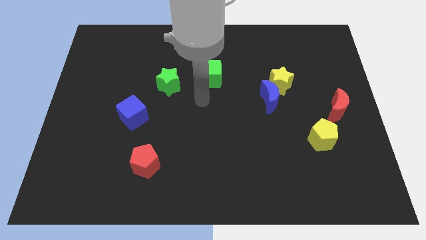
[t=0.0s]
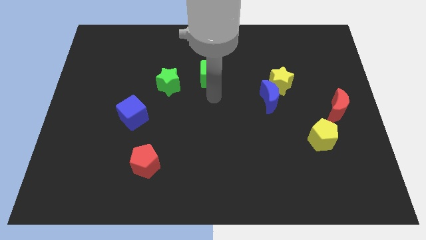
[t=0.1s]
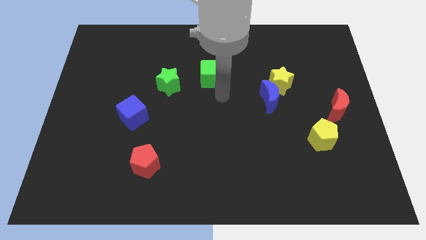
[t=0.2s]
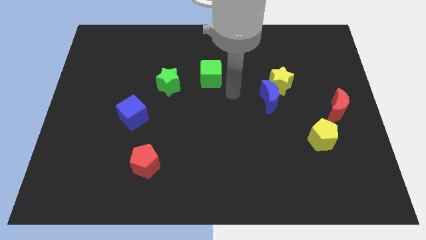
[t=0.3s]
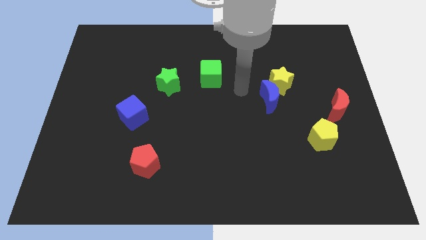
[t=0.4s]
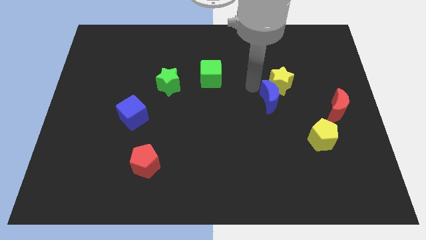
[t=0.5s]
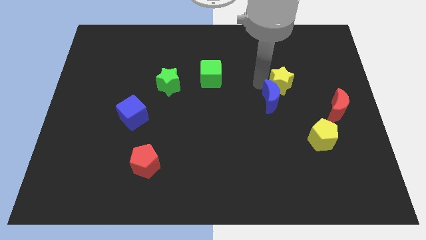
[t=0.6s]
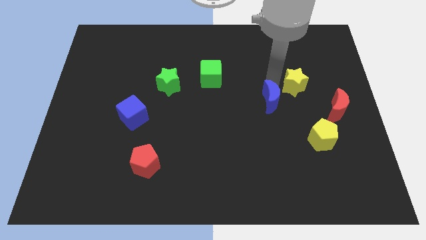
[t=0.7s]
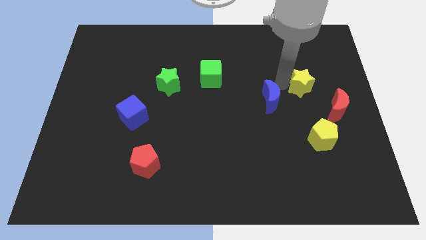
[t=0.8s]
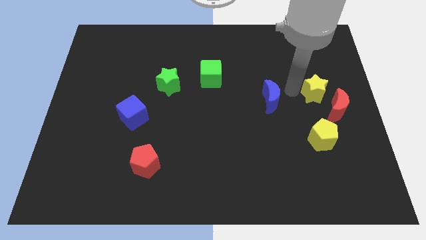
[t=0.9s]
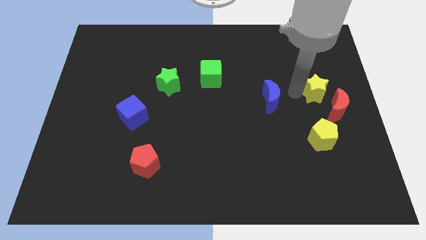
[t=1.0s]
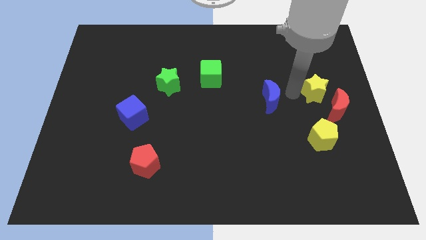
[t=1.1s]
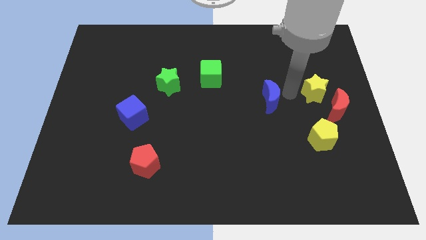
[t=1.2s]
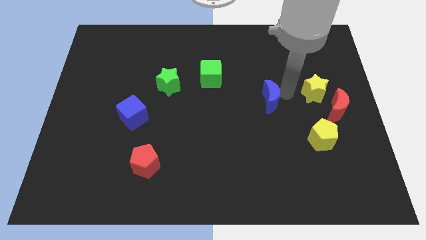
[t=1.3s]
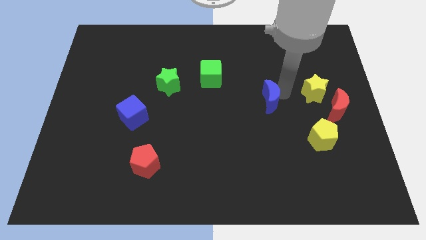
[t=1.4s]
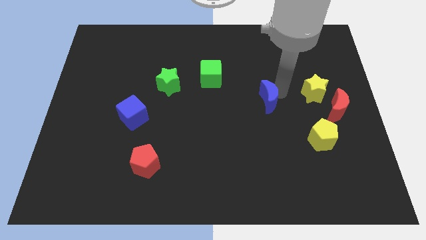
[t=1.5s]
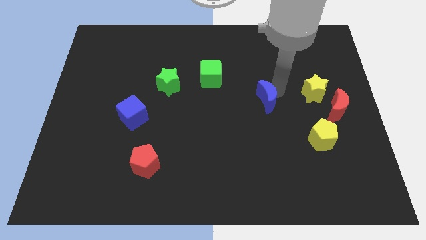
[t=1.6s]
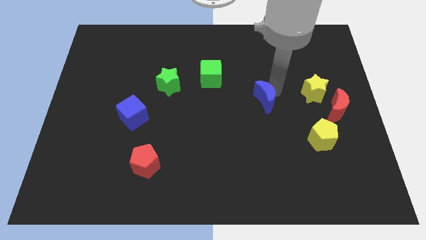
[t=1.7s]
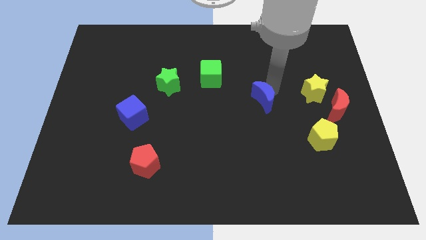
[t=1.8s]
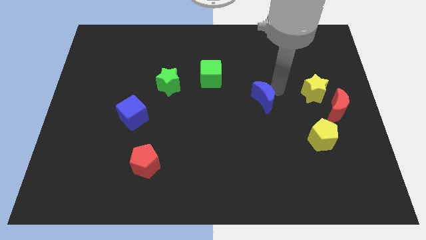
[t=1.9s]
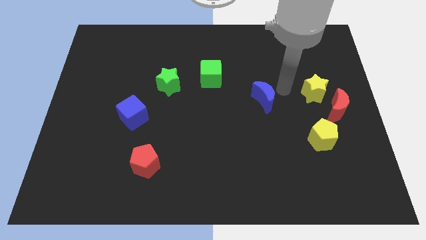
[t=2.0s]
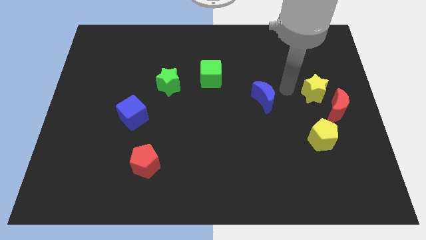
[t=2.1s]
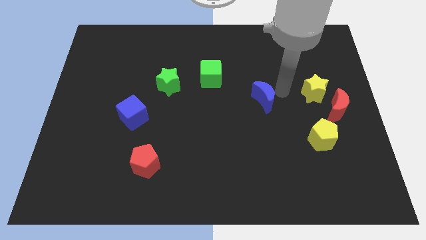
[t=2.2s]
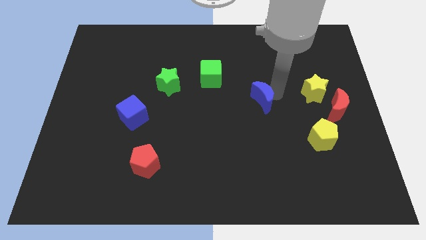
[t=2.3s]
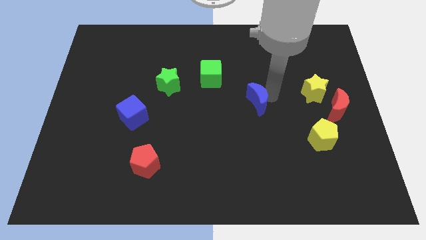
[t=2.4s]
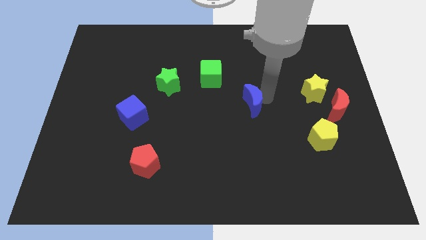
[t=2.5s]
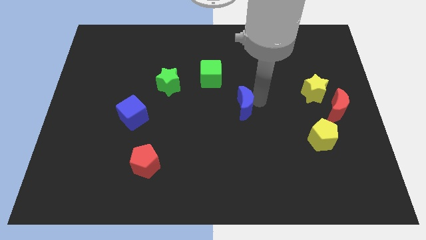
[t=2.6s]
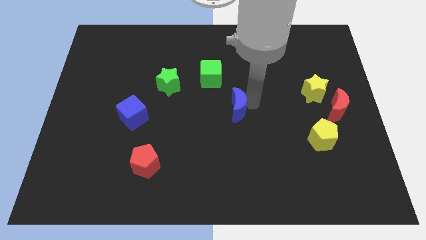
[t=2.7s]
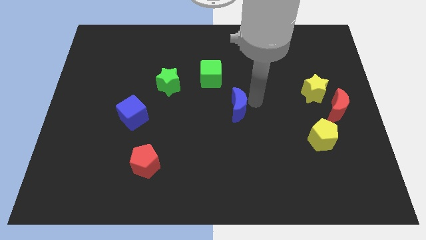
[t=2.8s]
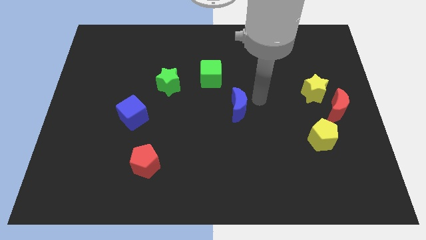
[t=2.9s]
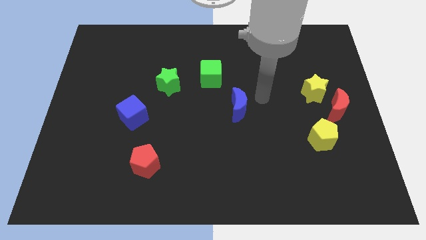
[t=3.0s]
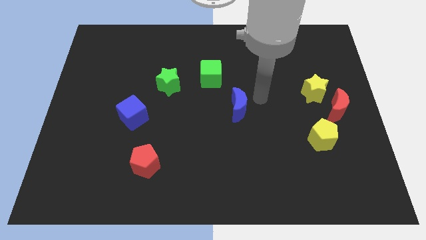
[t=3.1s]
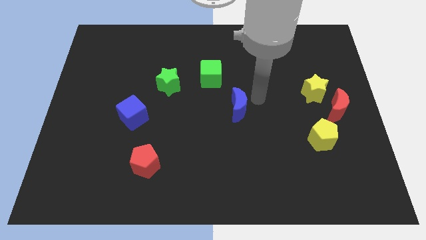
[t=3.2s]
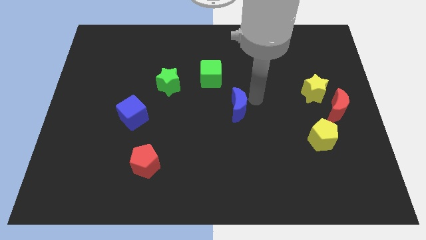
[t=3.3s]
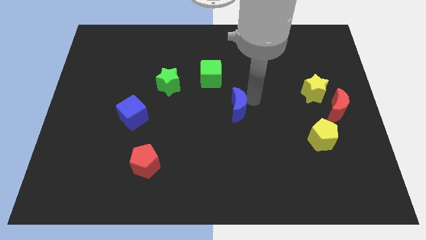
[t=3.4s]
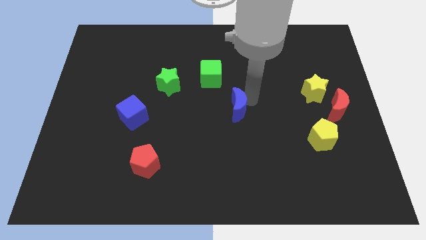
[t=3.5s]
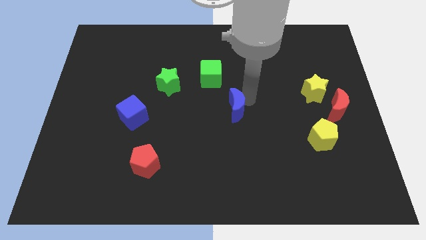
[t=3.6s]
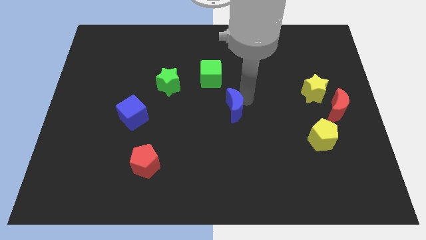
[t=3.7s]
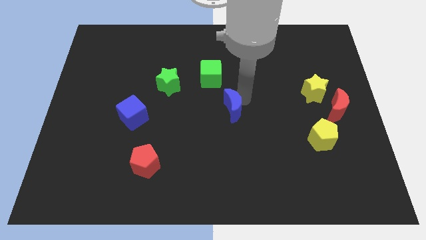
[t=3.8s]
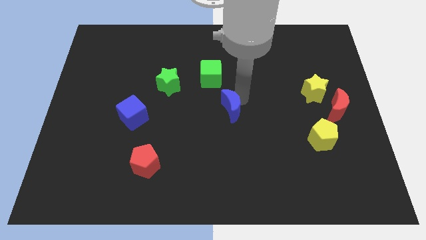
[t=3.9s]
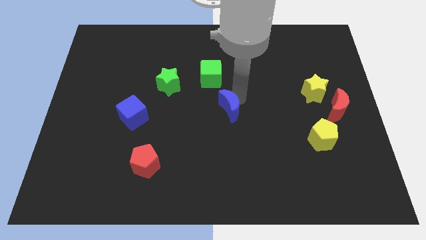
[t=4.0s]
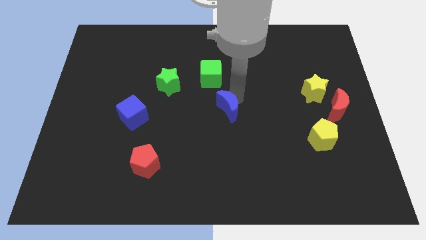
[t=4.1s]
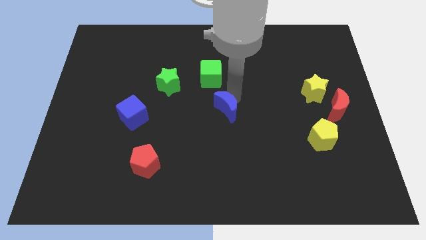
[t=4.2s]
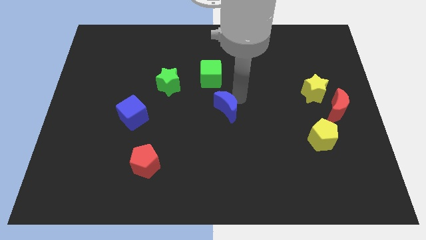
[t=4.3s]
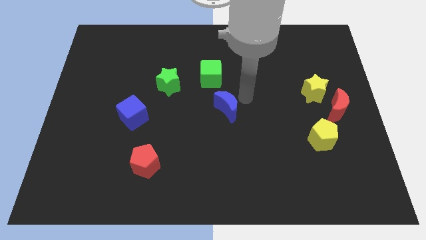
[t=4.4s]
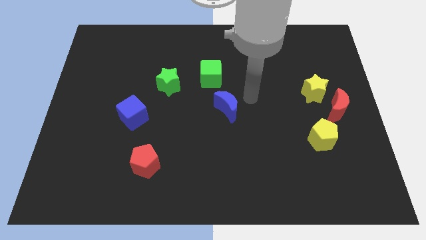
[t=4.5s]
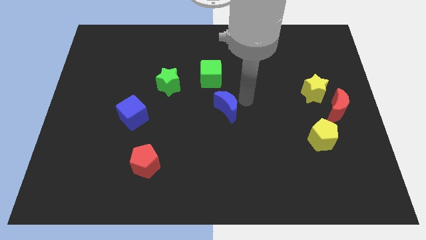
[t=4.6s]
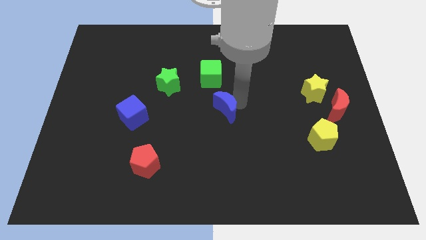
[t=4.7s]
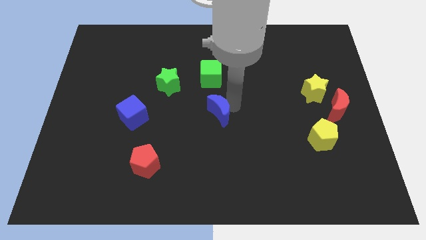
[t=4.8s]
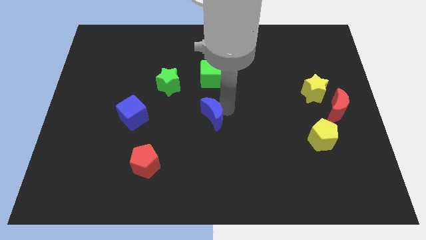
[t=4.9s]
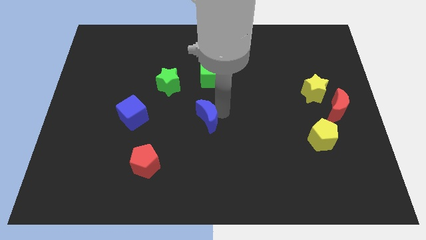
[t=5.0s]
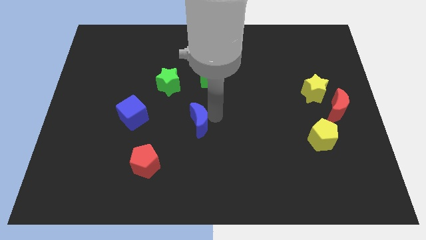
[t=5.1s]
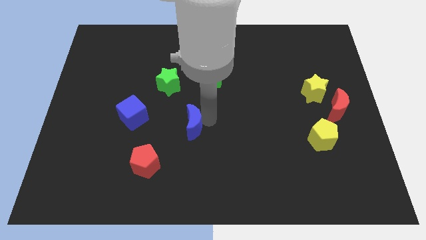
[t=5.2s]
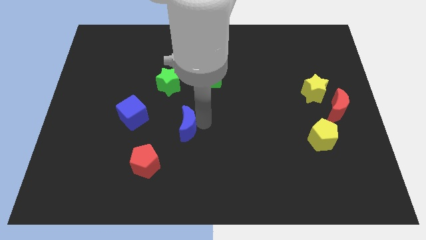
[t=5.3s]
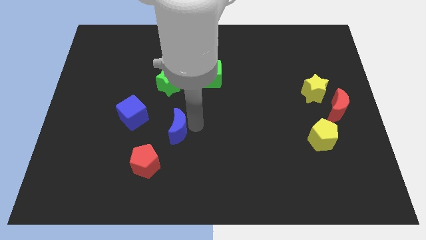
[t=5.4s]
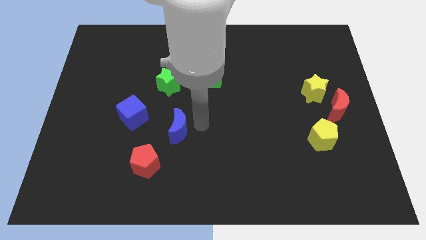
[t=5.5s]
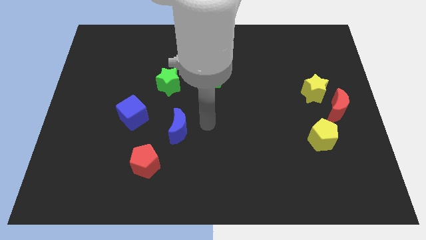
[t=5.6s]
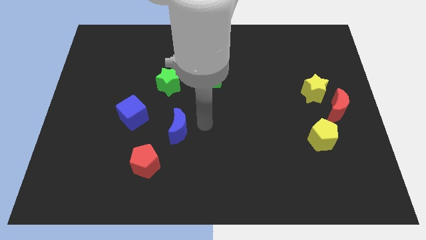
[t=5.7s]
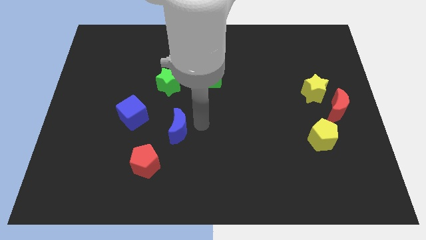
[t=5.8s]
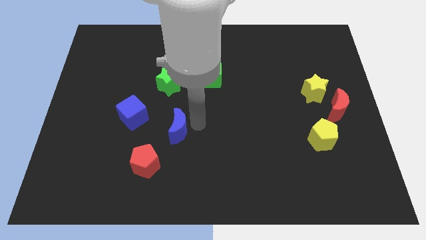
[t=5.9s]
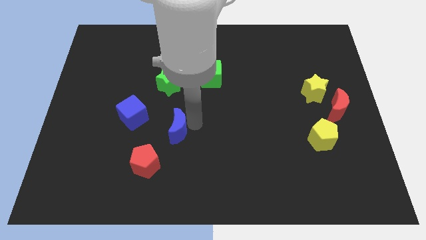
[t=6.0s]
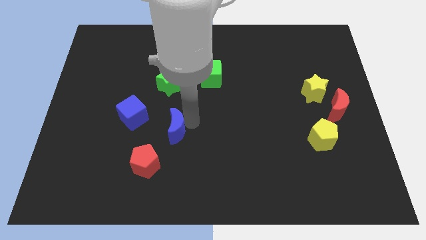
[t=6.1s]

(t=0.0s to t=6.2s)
put the blue moon to the bottom right of the blue cube
